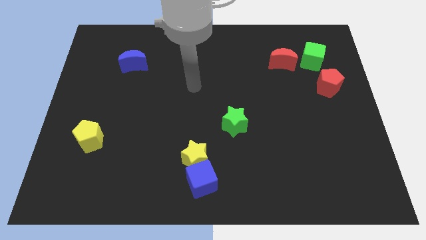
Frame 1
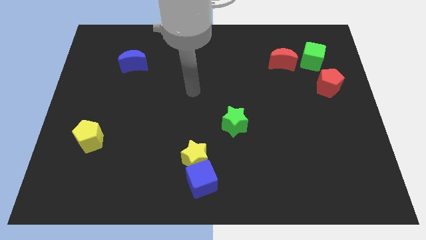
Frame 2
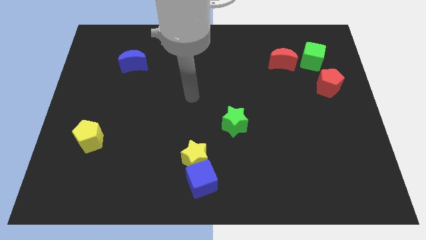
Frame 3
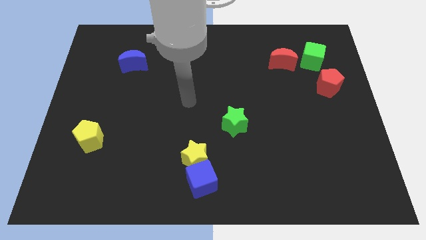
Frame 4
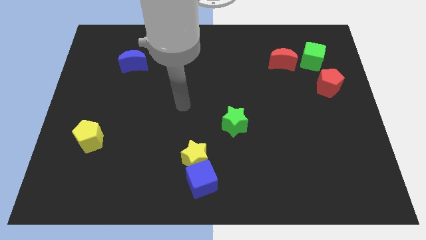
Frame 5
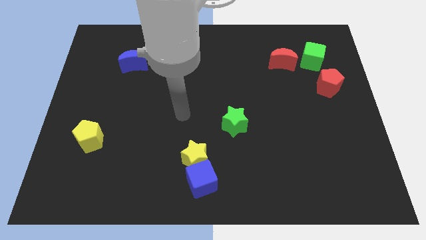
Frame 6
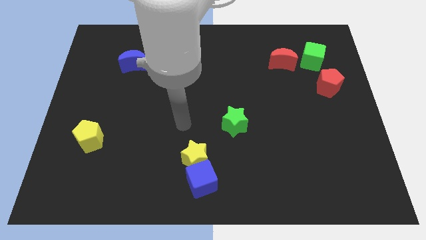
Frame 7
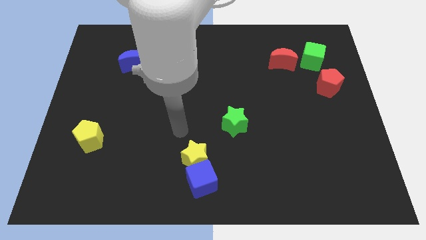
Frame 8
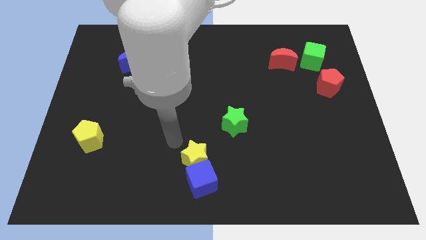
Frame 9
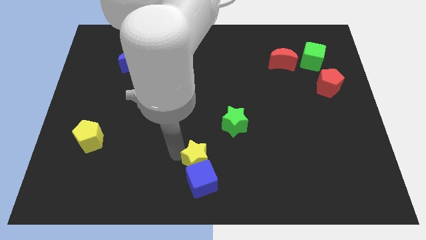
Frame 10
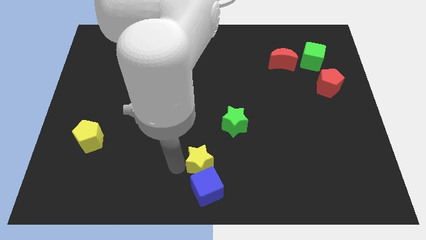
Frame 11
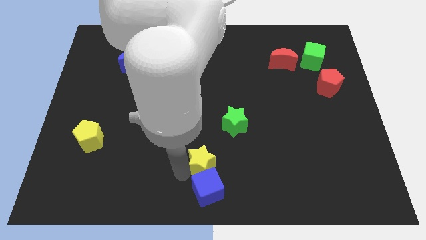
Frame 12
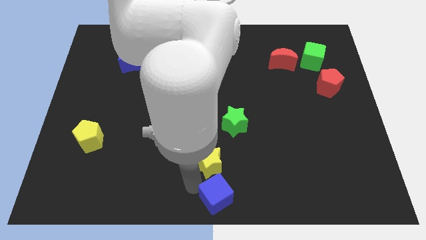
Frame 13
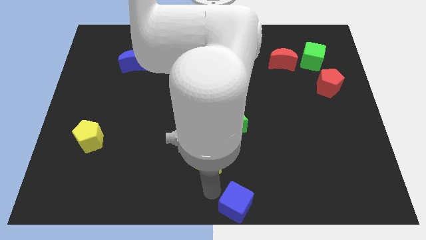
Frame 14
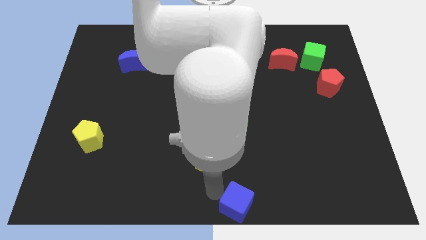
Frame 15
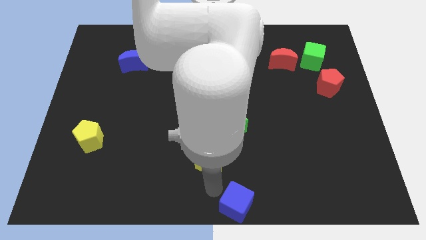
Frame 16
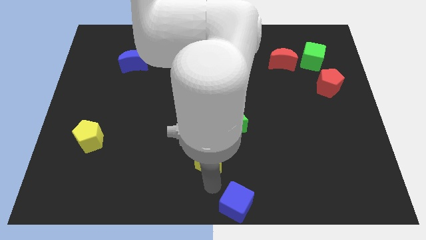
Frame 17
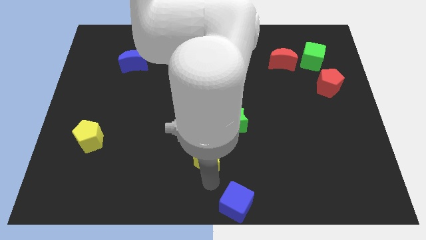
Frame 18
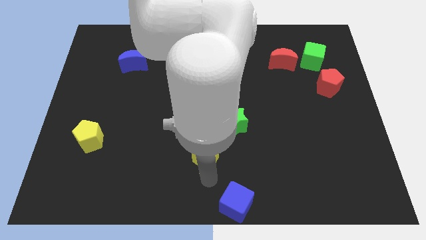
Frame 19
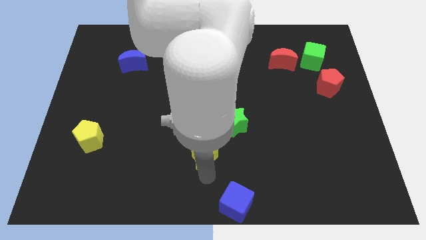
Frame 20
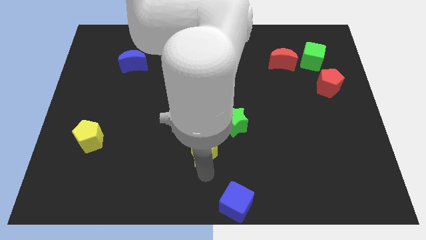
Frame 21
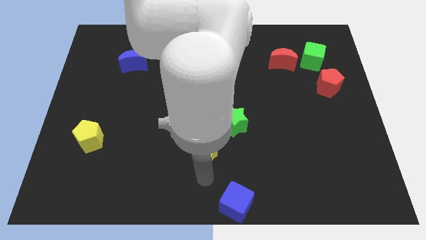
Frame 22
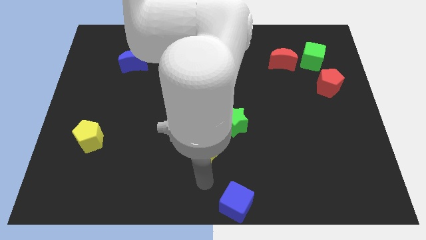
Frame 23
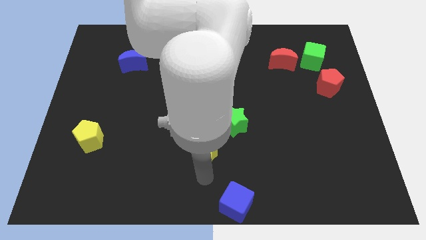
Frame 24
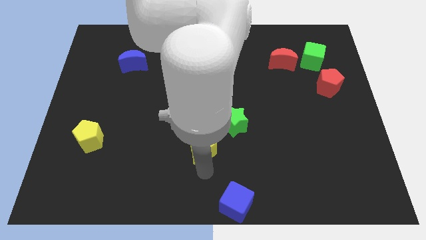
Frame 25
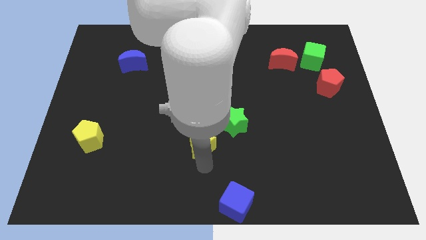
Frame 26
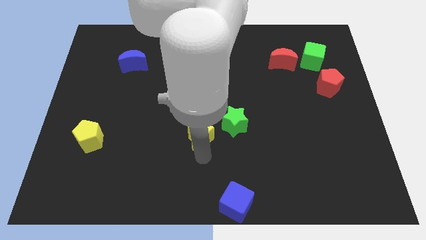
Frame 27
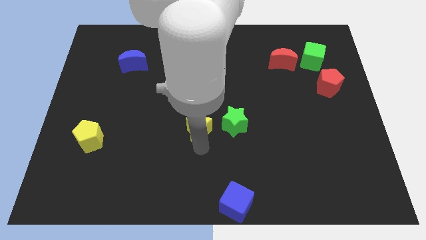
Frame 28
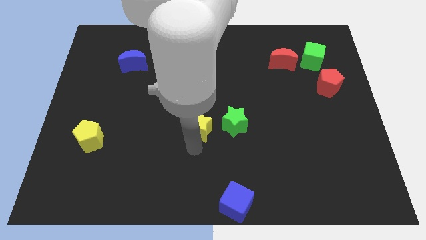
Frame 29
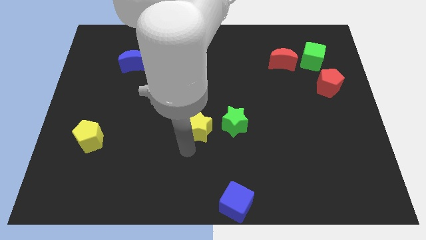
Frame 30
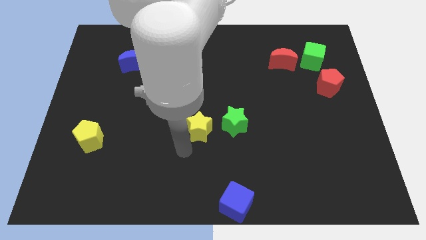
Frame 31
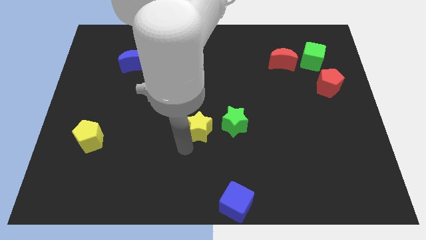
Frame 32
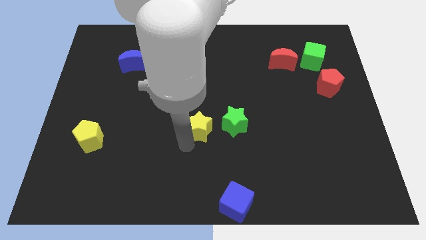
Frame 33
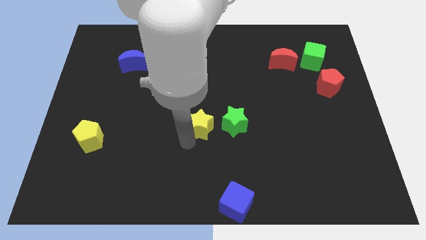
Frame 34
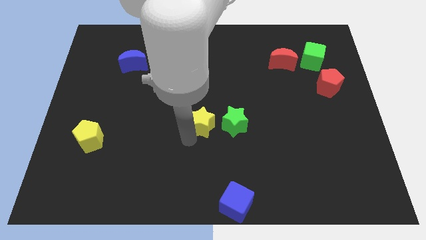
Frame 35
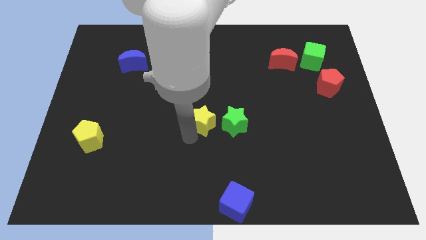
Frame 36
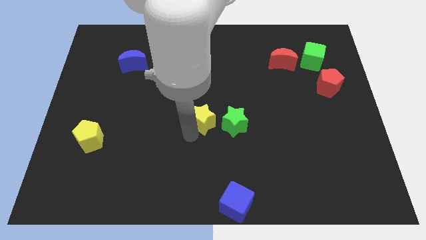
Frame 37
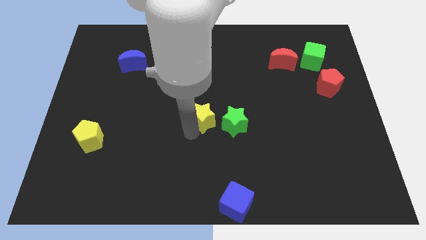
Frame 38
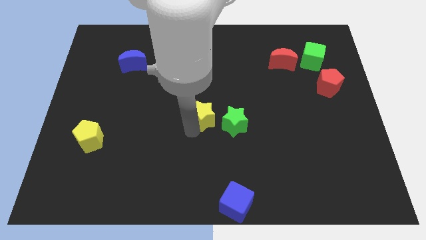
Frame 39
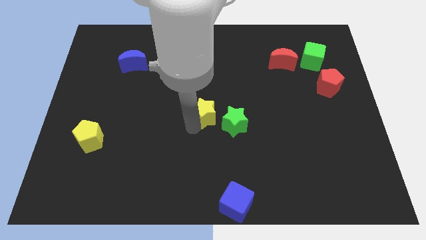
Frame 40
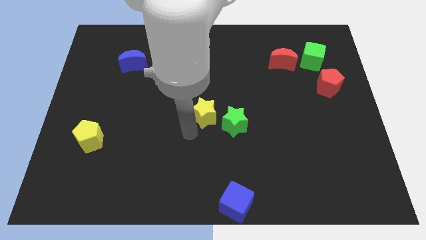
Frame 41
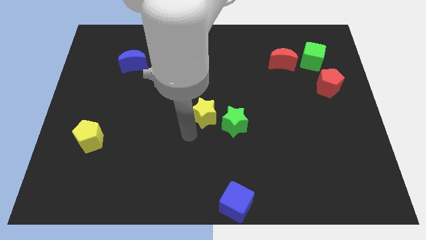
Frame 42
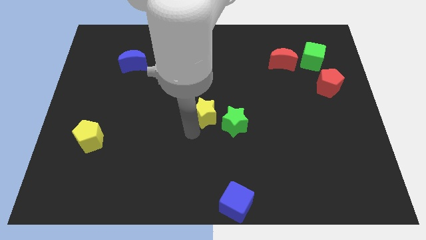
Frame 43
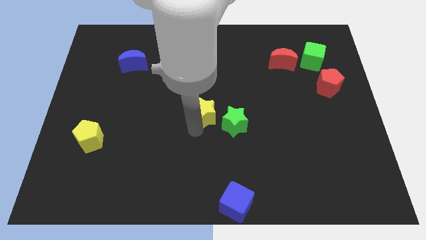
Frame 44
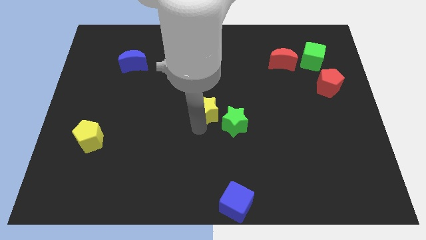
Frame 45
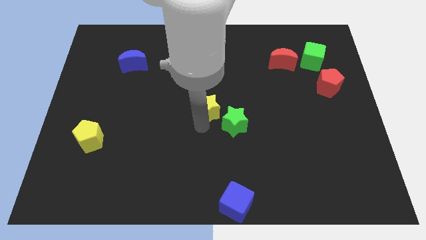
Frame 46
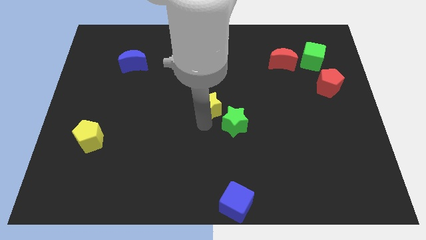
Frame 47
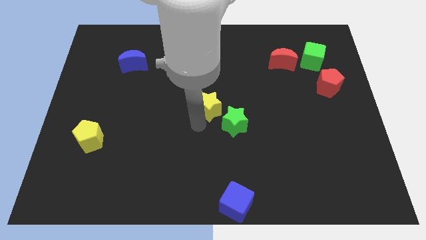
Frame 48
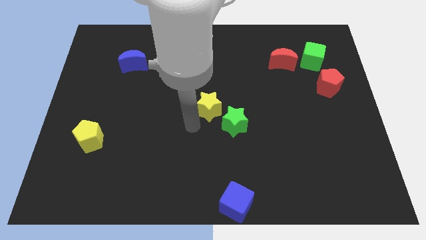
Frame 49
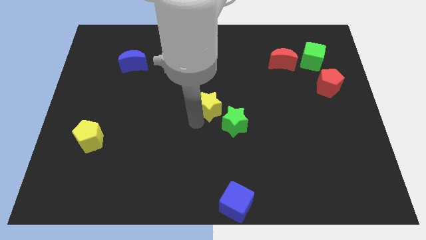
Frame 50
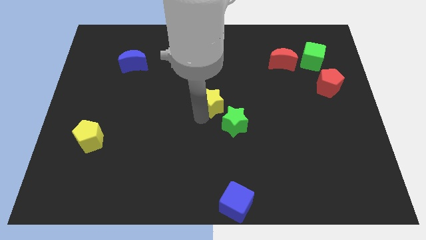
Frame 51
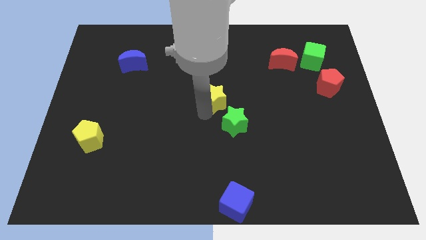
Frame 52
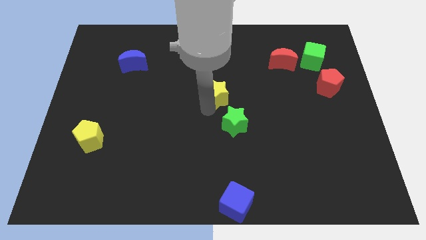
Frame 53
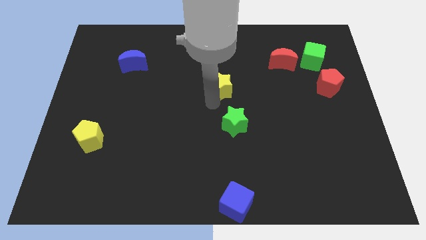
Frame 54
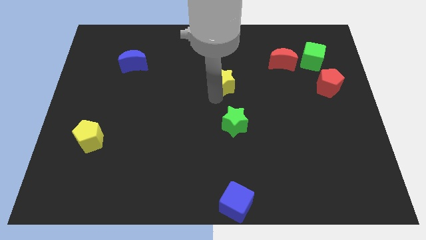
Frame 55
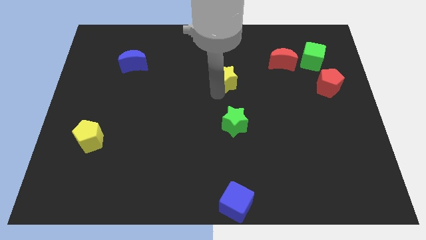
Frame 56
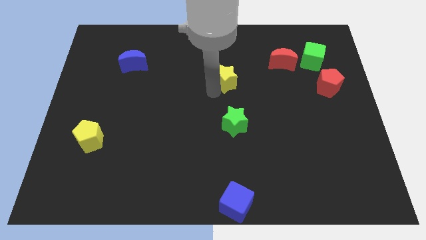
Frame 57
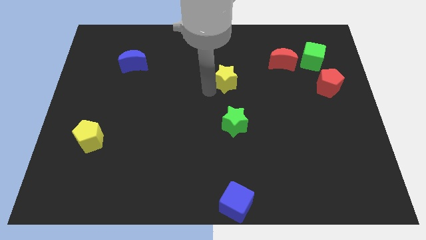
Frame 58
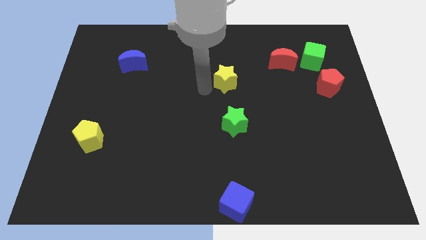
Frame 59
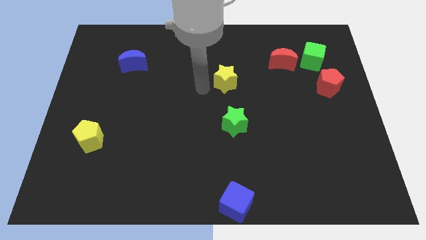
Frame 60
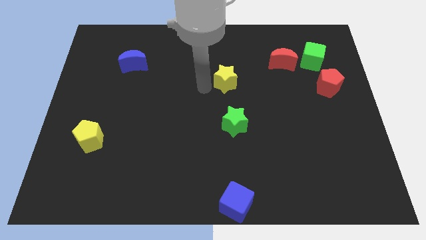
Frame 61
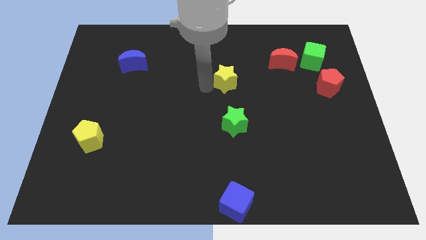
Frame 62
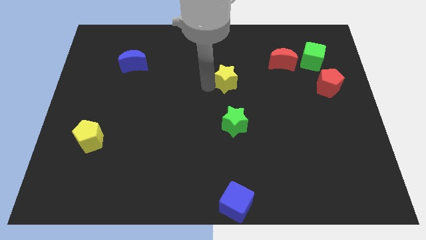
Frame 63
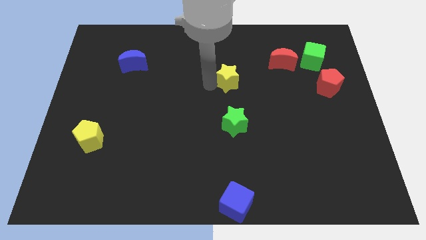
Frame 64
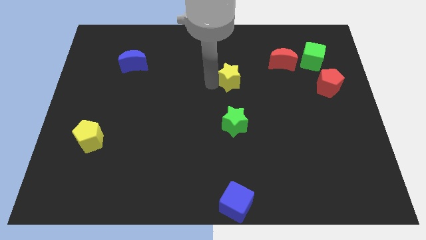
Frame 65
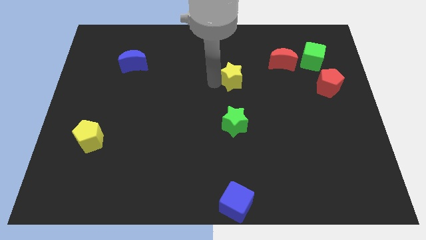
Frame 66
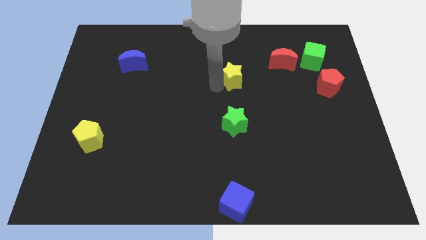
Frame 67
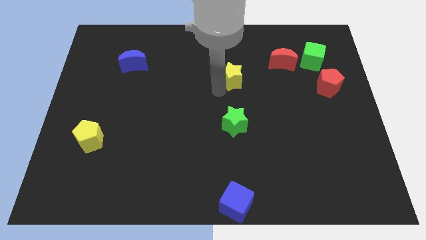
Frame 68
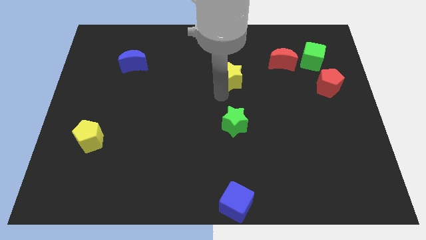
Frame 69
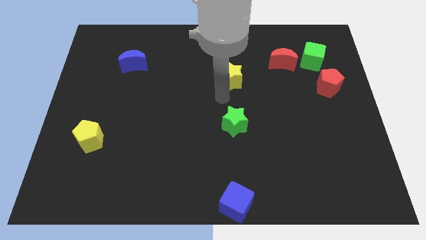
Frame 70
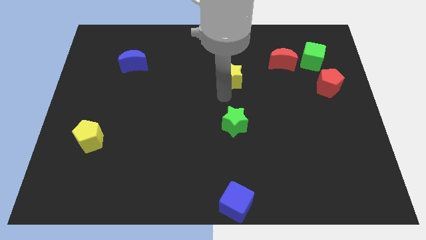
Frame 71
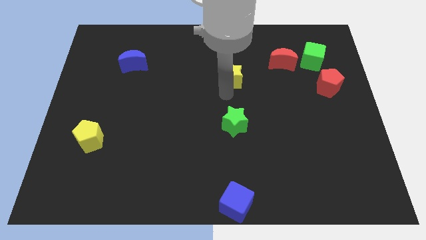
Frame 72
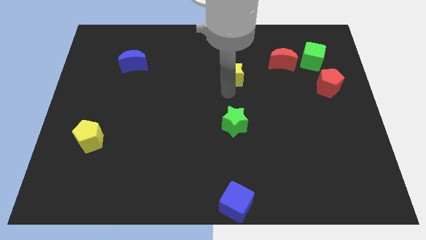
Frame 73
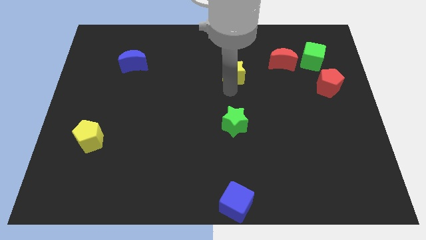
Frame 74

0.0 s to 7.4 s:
move the yellow star to the left side of the red moon
